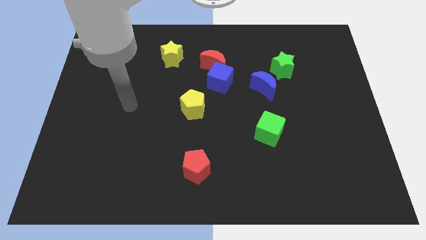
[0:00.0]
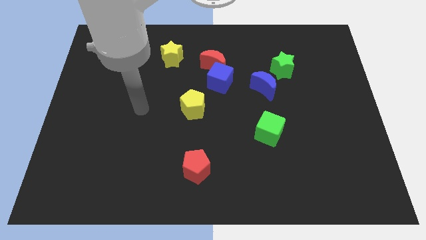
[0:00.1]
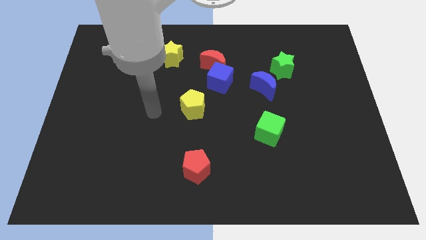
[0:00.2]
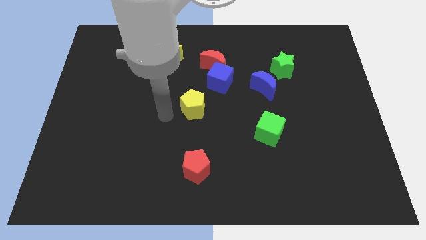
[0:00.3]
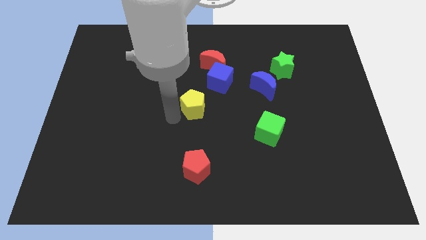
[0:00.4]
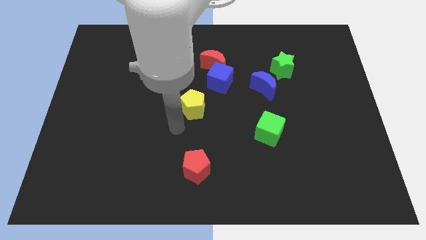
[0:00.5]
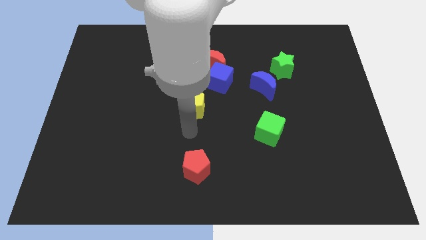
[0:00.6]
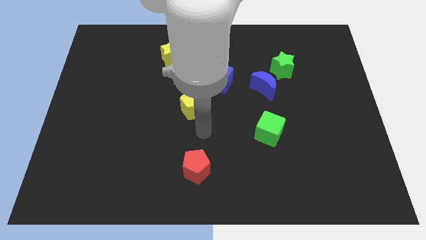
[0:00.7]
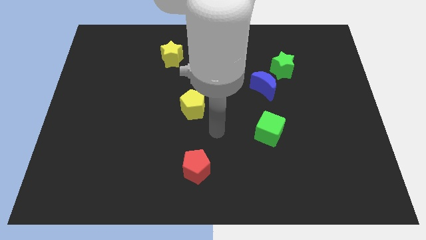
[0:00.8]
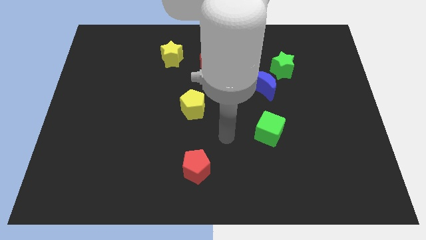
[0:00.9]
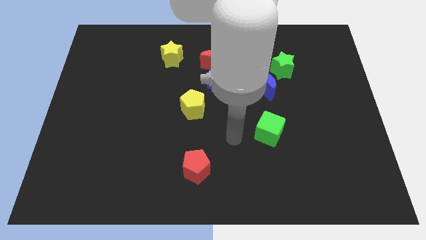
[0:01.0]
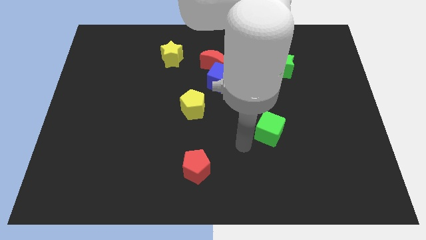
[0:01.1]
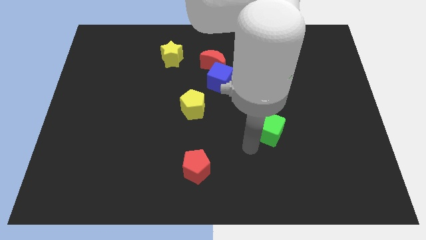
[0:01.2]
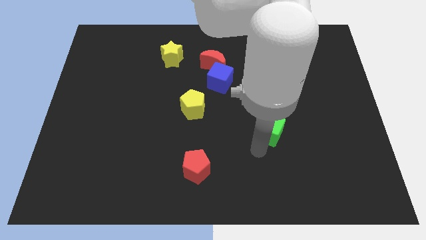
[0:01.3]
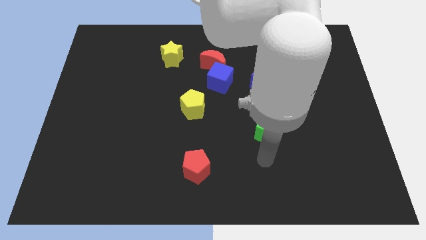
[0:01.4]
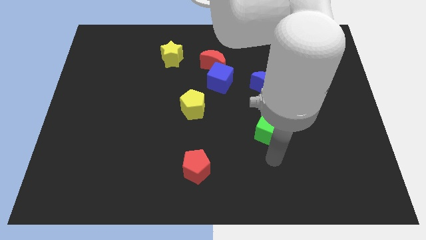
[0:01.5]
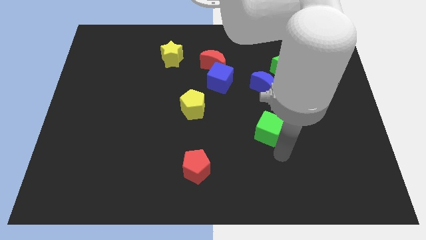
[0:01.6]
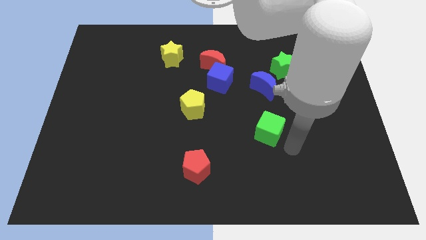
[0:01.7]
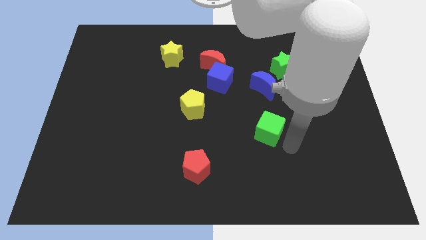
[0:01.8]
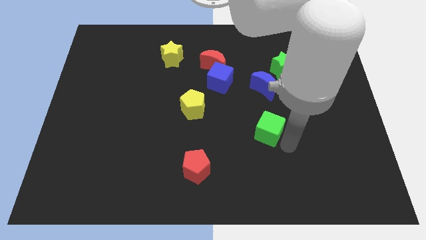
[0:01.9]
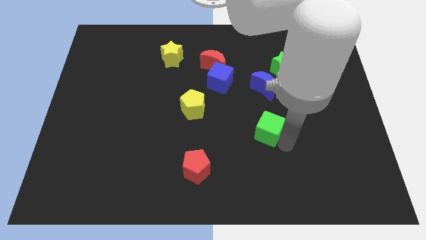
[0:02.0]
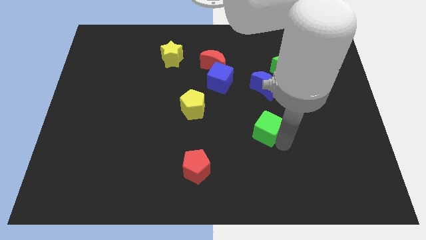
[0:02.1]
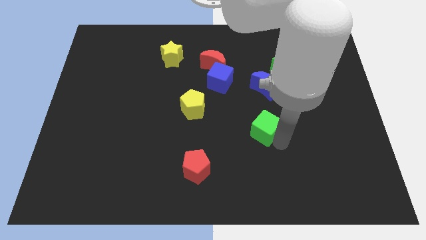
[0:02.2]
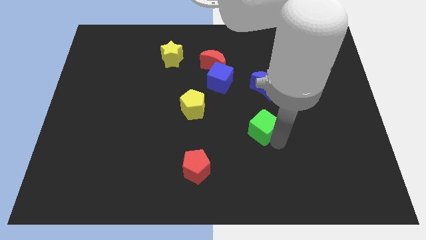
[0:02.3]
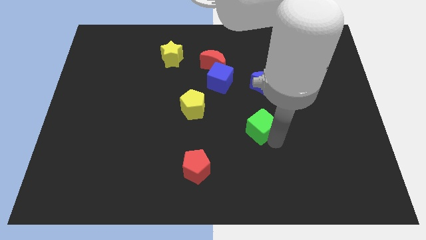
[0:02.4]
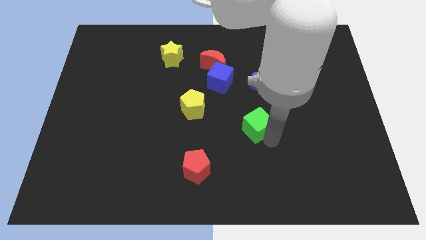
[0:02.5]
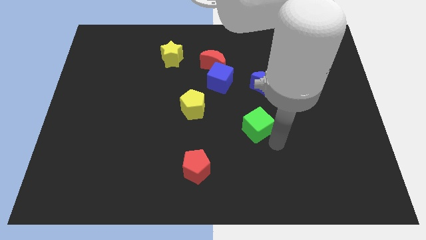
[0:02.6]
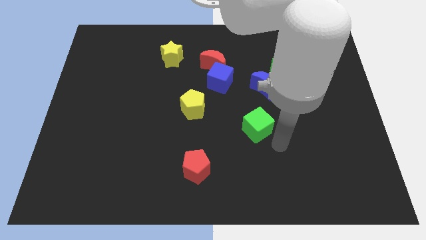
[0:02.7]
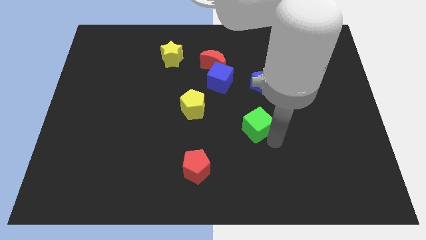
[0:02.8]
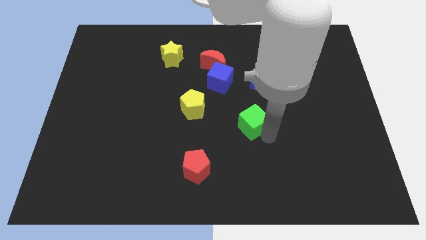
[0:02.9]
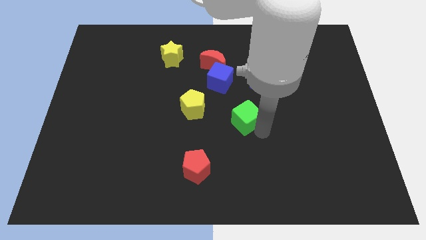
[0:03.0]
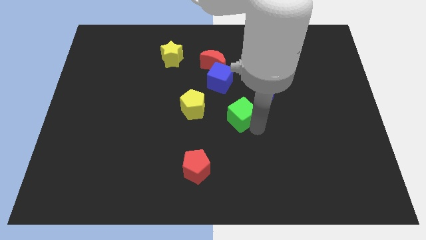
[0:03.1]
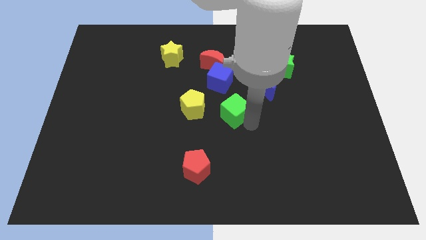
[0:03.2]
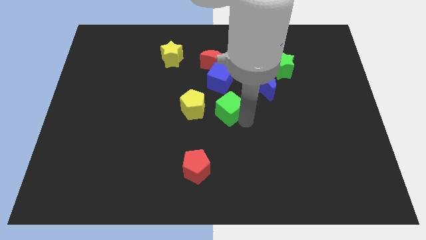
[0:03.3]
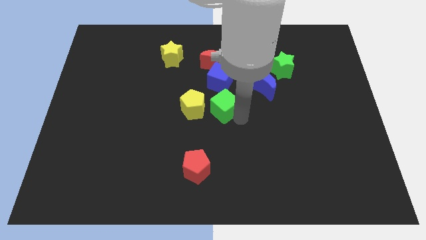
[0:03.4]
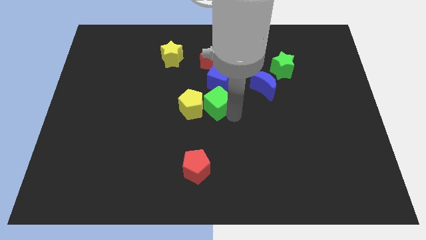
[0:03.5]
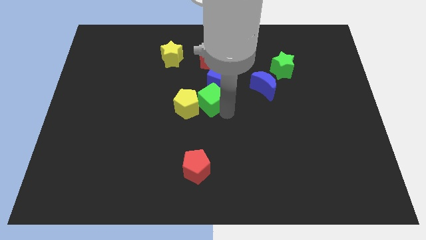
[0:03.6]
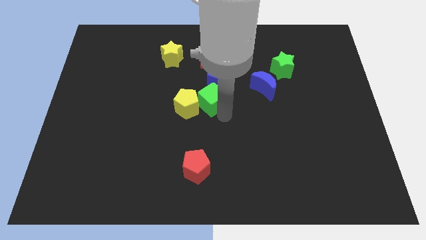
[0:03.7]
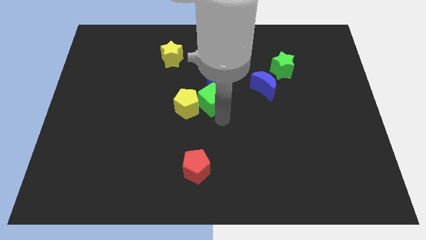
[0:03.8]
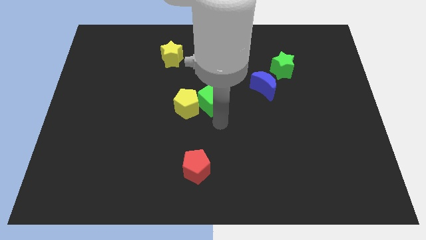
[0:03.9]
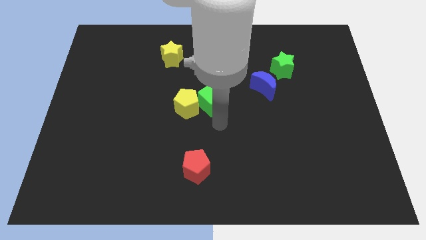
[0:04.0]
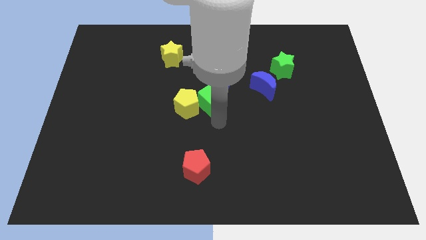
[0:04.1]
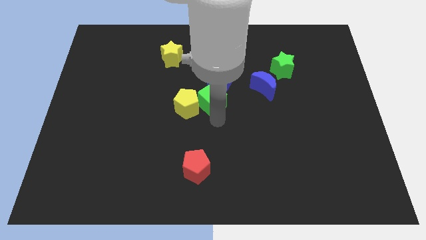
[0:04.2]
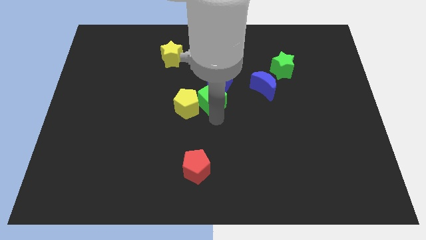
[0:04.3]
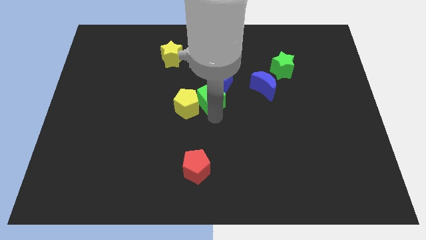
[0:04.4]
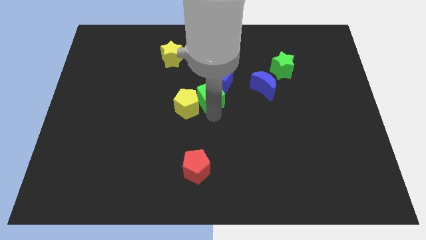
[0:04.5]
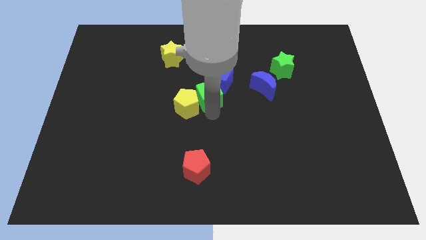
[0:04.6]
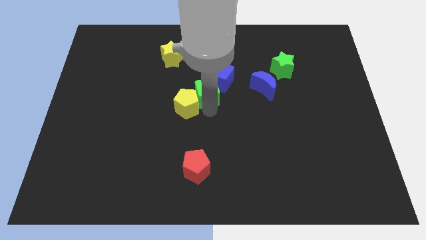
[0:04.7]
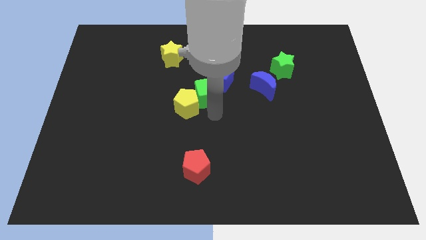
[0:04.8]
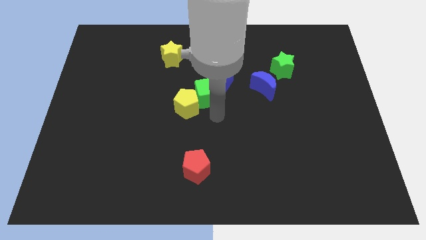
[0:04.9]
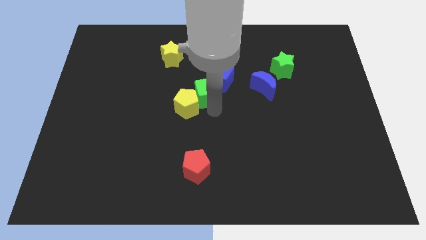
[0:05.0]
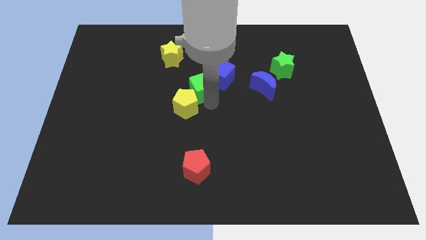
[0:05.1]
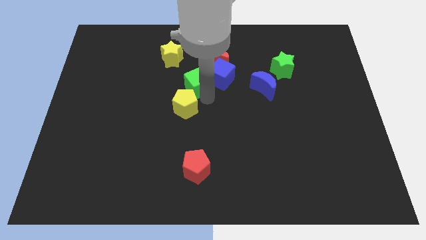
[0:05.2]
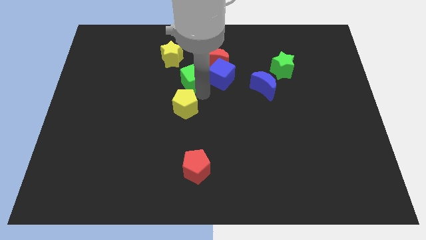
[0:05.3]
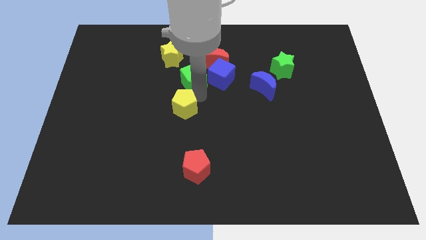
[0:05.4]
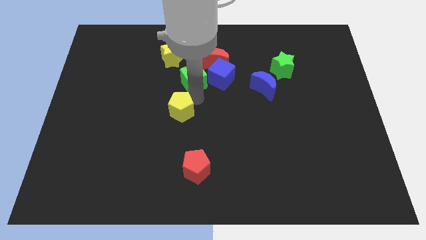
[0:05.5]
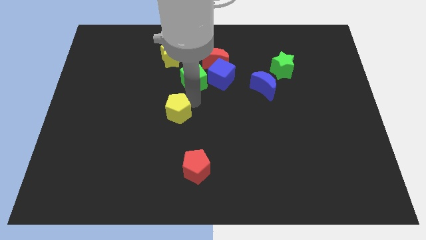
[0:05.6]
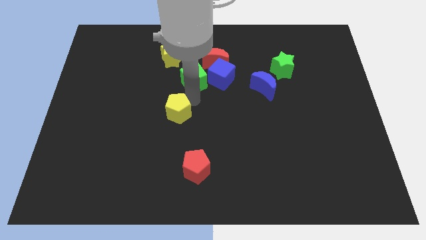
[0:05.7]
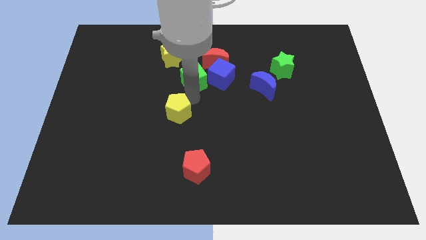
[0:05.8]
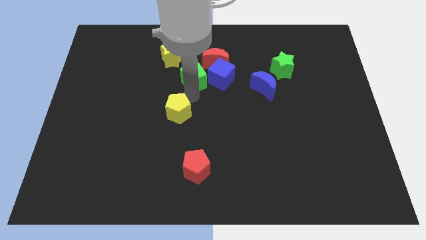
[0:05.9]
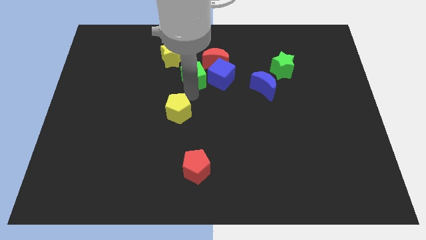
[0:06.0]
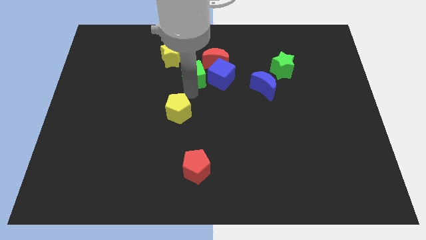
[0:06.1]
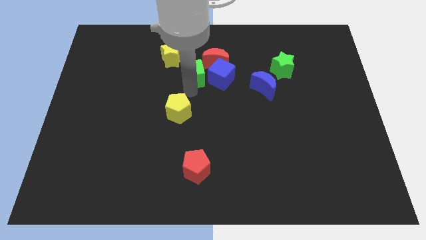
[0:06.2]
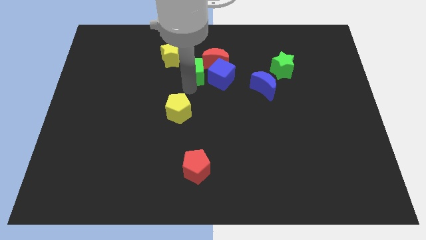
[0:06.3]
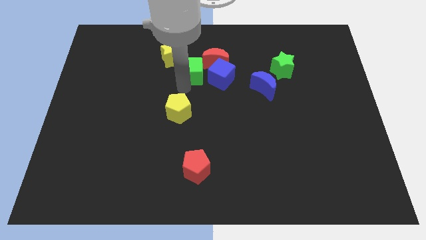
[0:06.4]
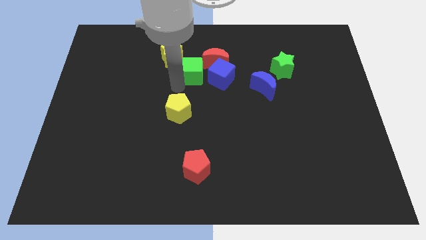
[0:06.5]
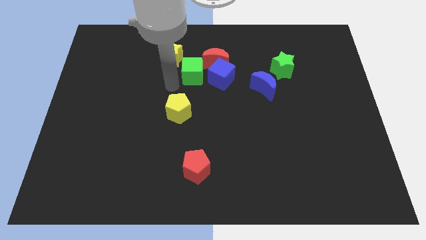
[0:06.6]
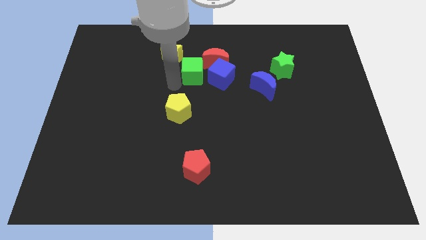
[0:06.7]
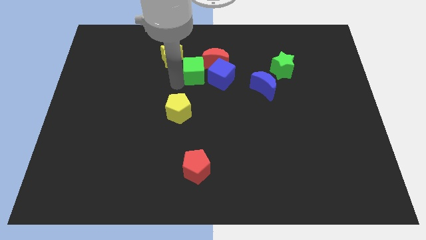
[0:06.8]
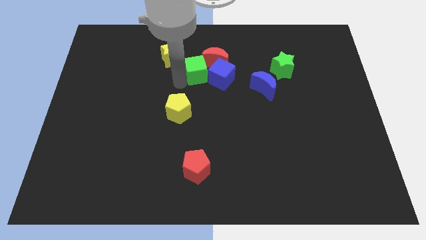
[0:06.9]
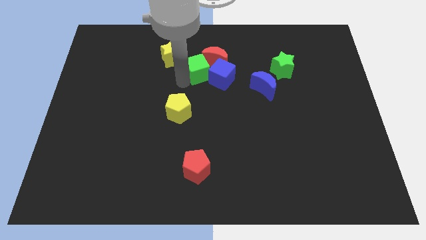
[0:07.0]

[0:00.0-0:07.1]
put the green cube next to the red moon
